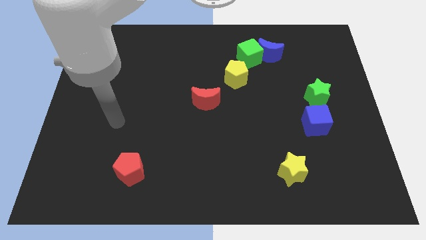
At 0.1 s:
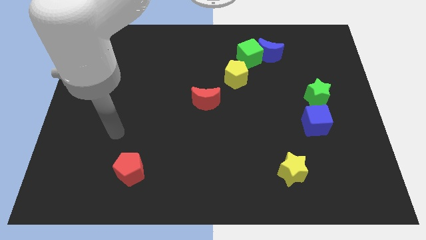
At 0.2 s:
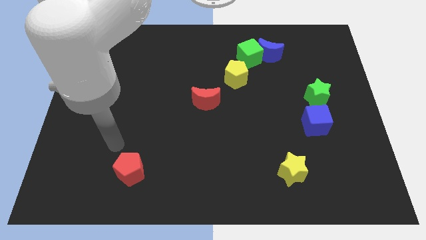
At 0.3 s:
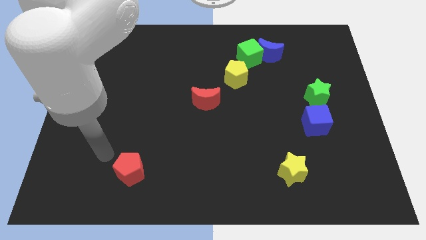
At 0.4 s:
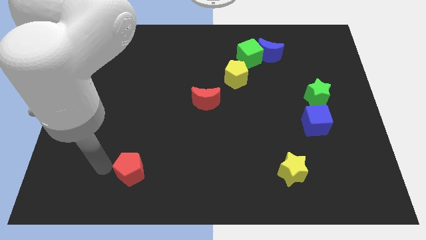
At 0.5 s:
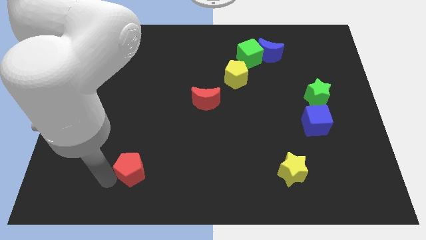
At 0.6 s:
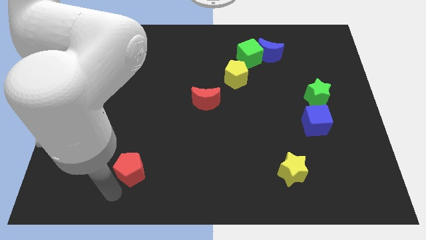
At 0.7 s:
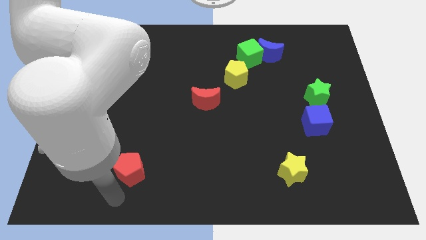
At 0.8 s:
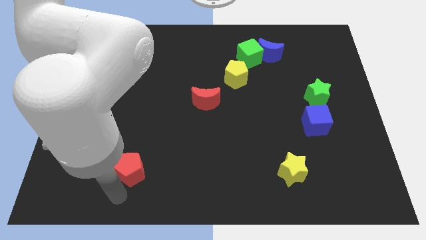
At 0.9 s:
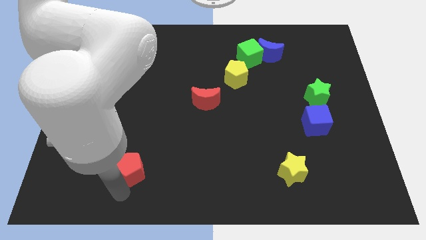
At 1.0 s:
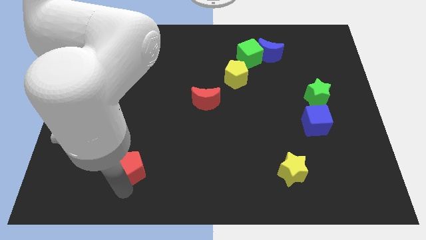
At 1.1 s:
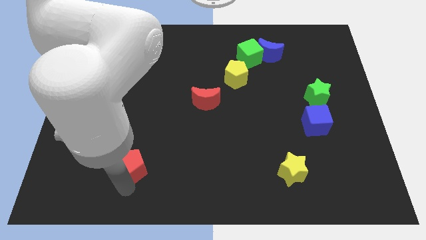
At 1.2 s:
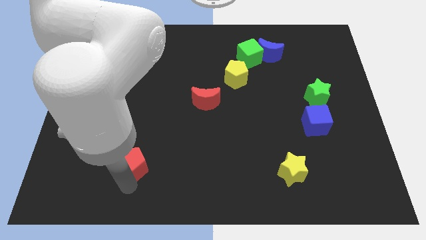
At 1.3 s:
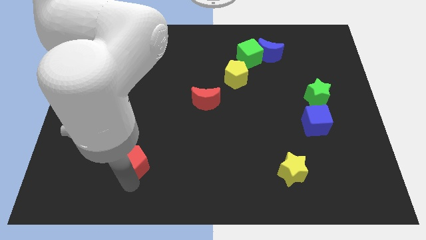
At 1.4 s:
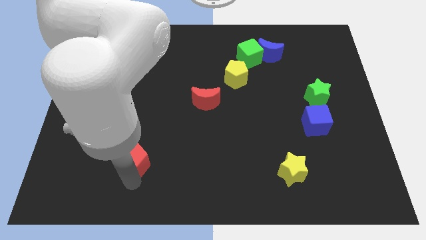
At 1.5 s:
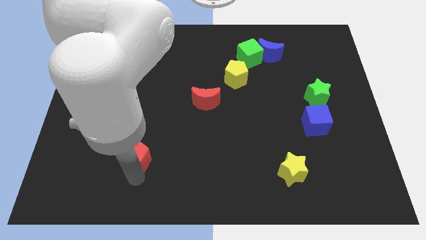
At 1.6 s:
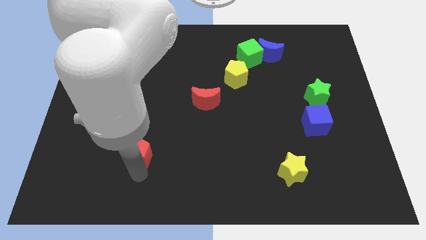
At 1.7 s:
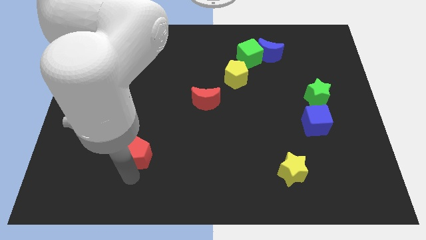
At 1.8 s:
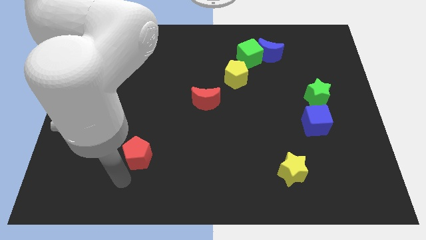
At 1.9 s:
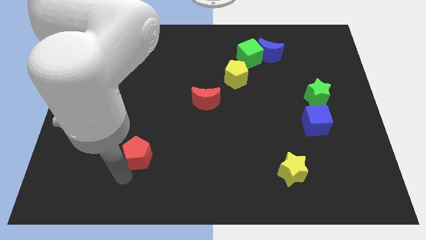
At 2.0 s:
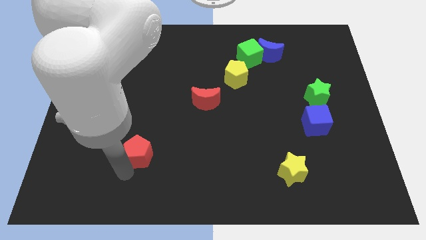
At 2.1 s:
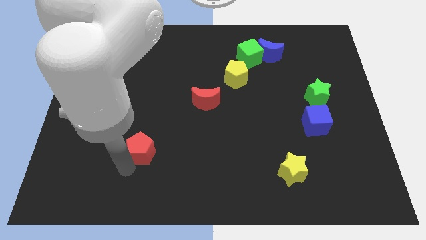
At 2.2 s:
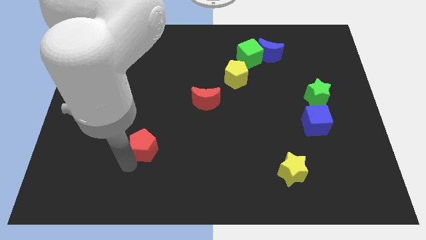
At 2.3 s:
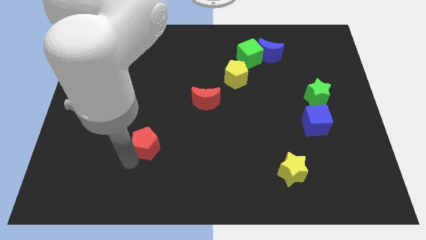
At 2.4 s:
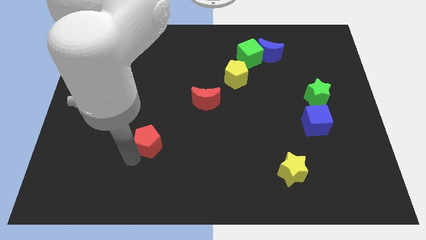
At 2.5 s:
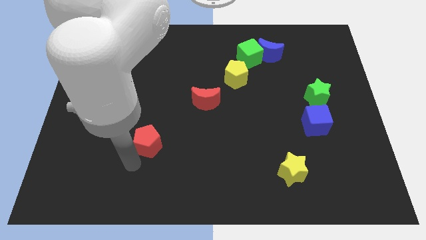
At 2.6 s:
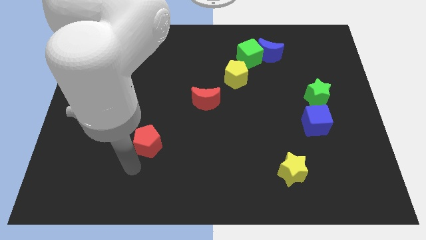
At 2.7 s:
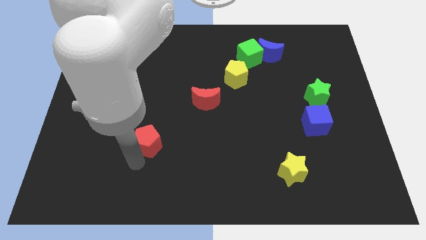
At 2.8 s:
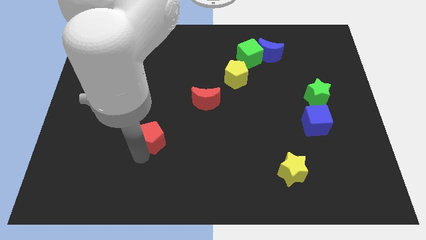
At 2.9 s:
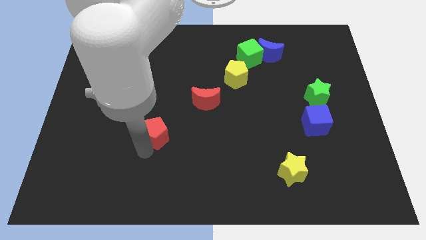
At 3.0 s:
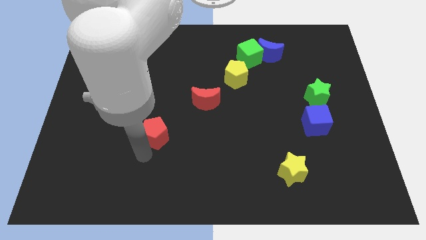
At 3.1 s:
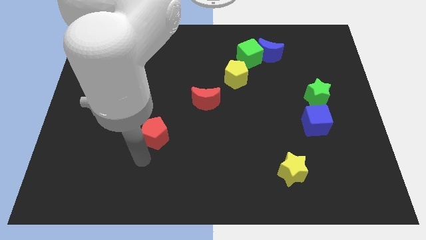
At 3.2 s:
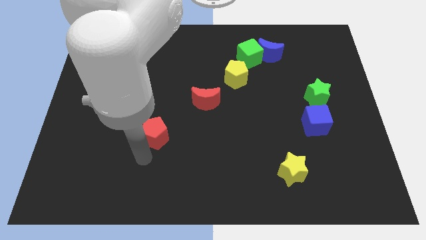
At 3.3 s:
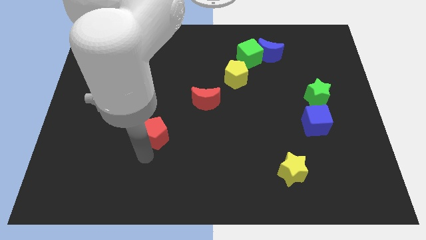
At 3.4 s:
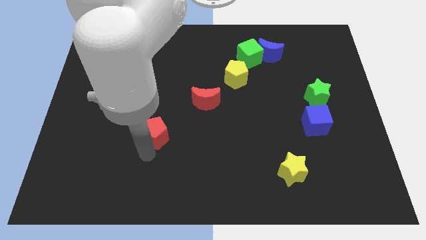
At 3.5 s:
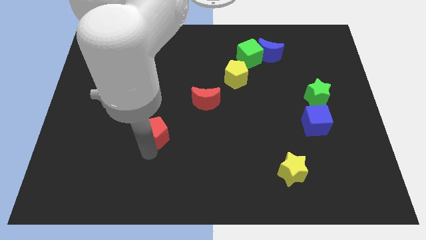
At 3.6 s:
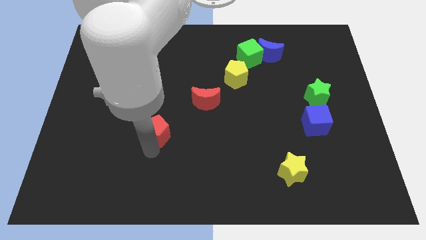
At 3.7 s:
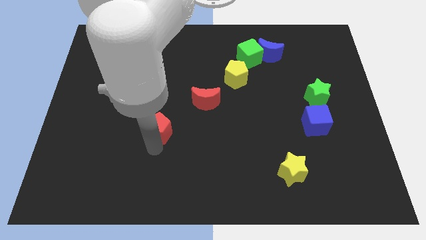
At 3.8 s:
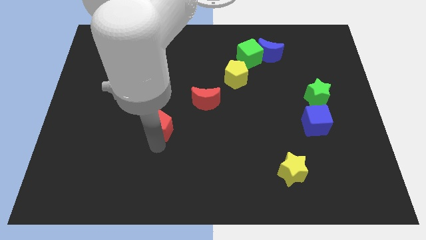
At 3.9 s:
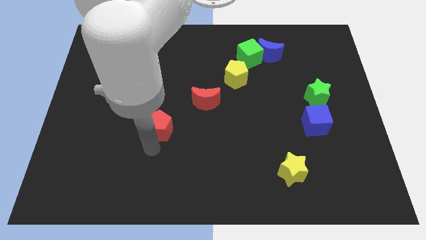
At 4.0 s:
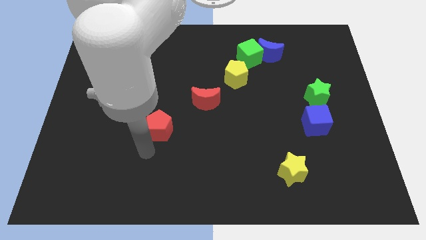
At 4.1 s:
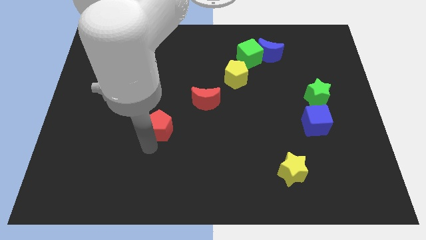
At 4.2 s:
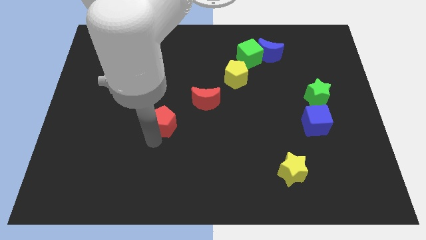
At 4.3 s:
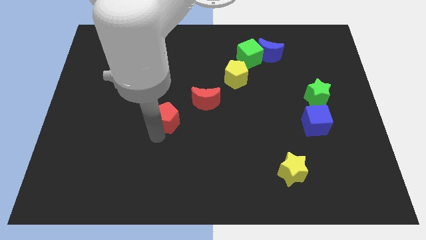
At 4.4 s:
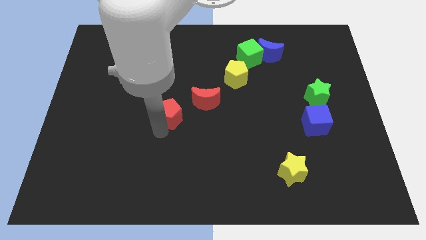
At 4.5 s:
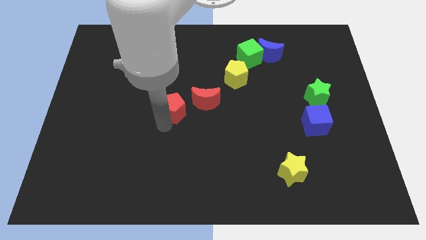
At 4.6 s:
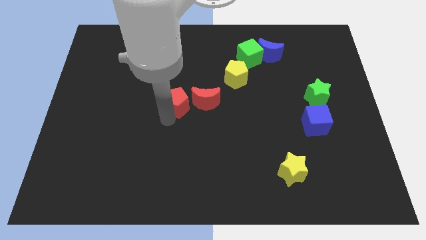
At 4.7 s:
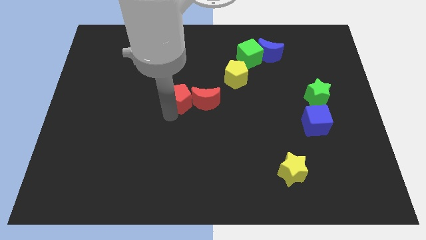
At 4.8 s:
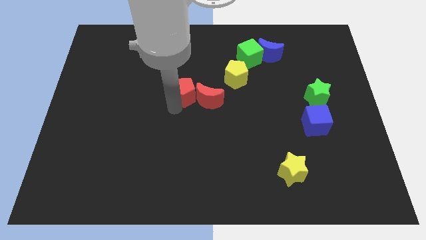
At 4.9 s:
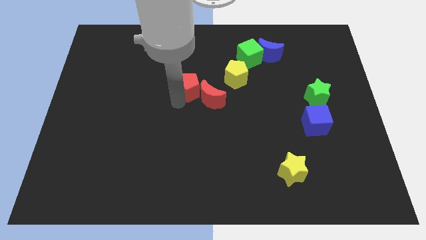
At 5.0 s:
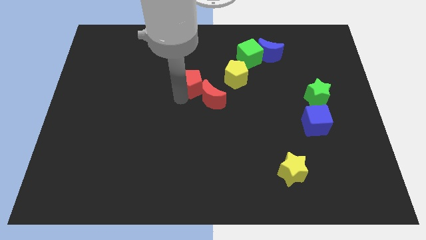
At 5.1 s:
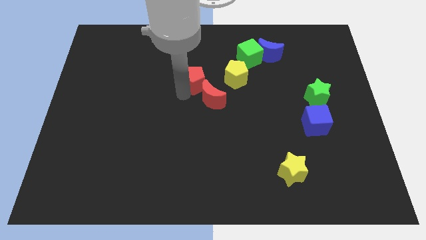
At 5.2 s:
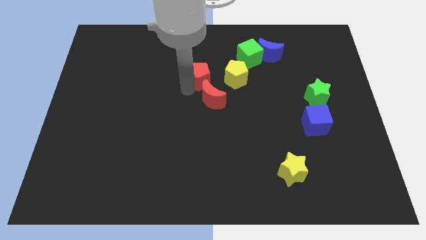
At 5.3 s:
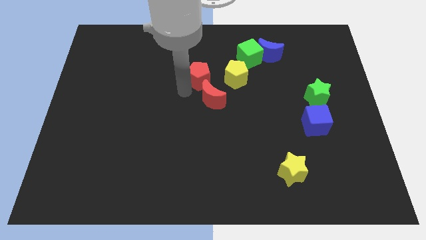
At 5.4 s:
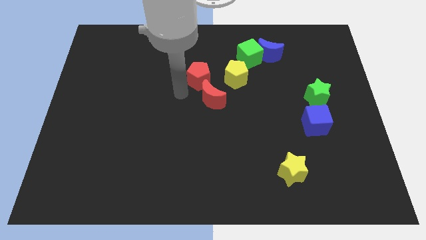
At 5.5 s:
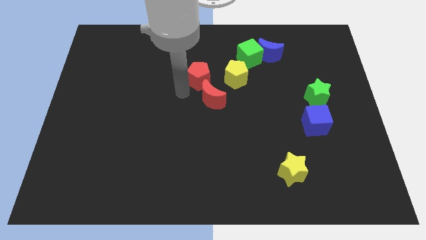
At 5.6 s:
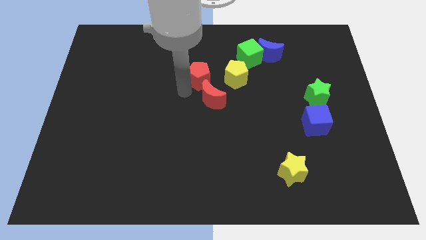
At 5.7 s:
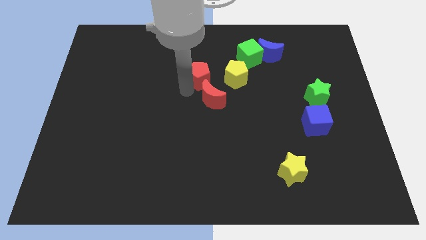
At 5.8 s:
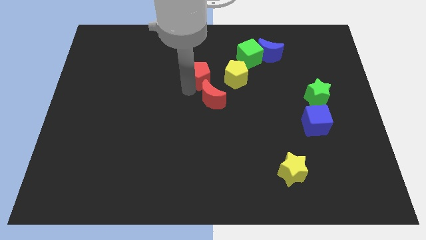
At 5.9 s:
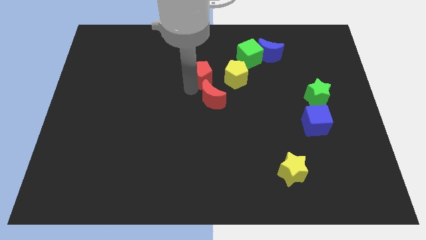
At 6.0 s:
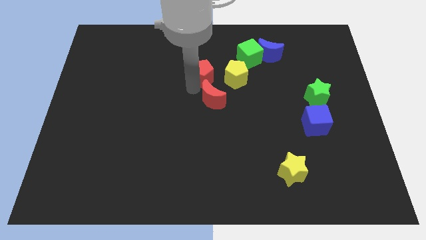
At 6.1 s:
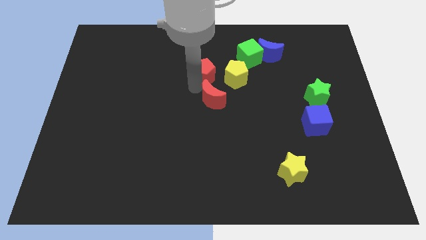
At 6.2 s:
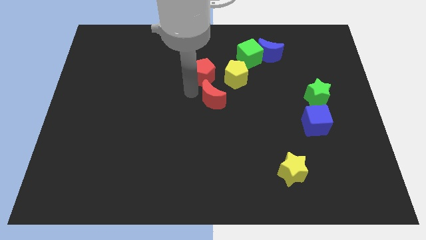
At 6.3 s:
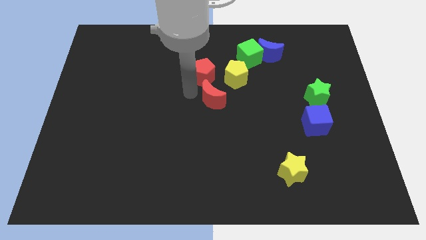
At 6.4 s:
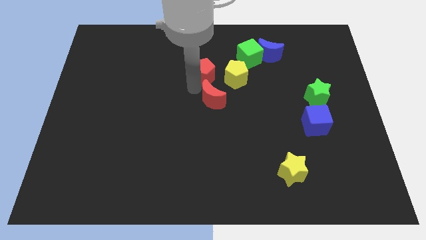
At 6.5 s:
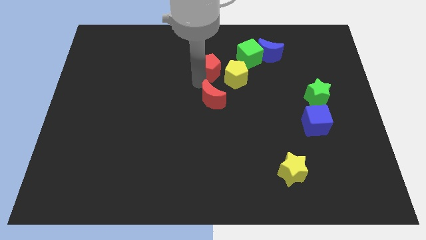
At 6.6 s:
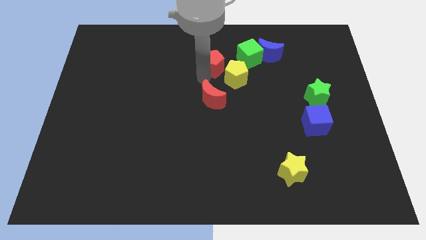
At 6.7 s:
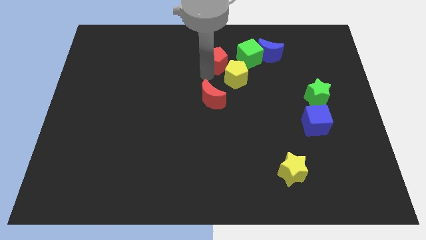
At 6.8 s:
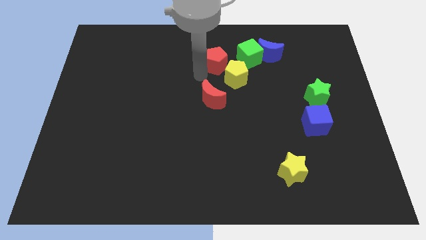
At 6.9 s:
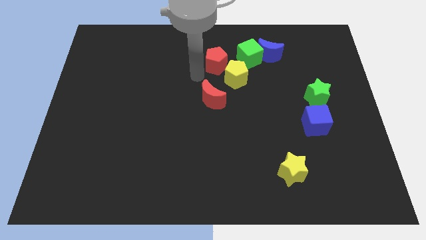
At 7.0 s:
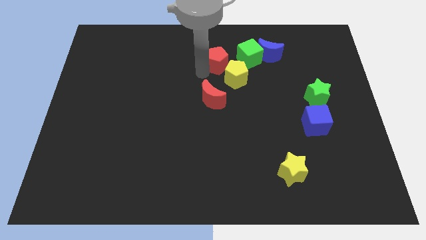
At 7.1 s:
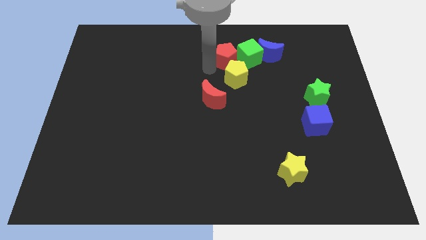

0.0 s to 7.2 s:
push the red pentagon towards the green cube
